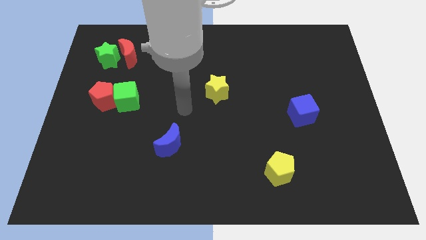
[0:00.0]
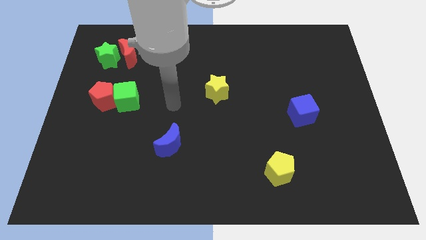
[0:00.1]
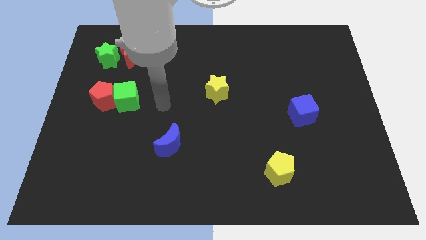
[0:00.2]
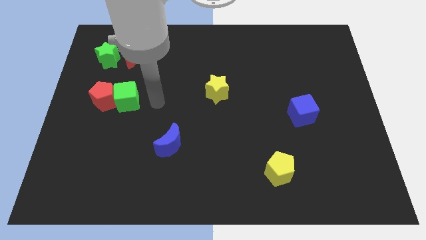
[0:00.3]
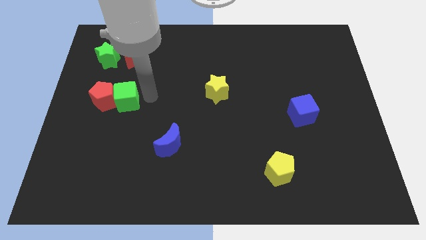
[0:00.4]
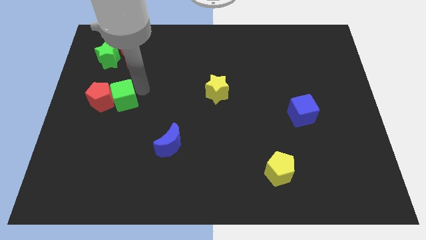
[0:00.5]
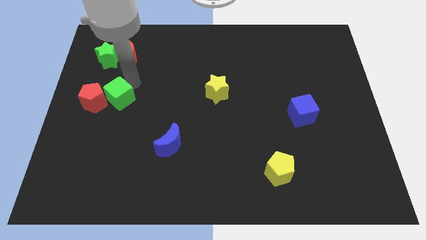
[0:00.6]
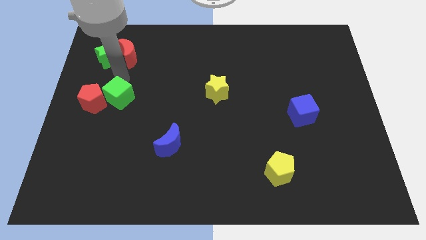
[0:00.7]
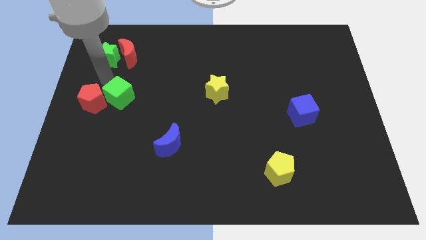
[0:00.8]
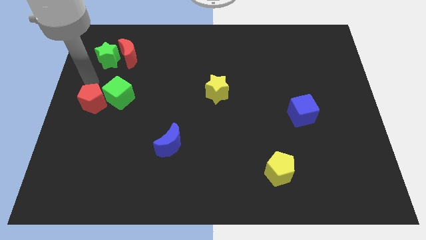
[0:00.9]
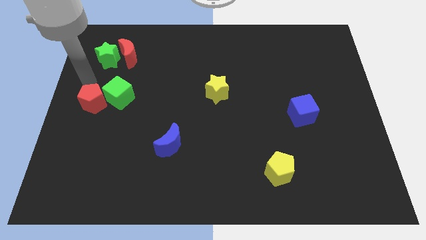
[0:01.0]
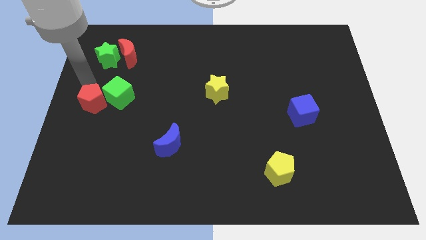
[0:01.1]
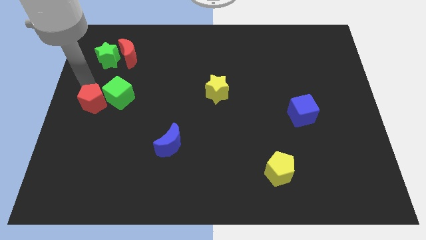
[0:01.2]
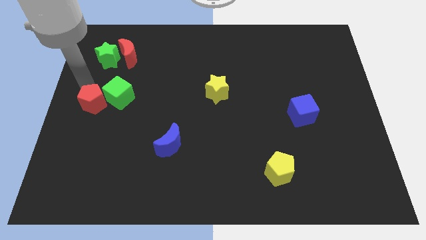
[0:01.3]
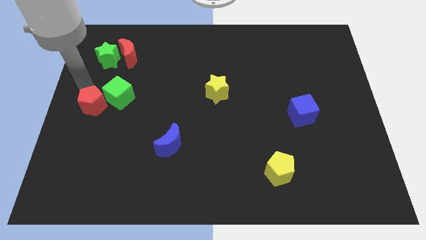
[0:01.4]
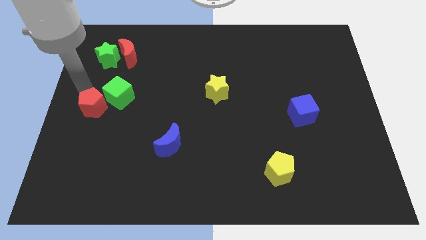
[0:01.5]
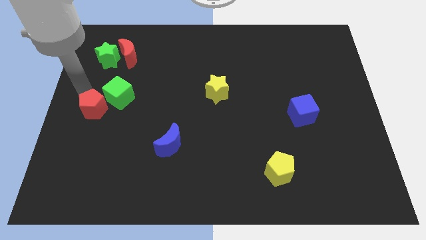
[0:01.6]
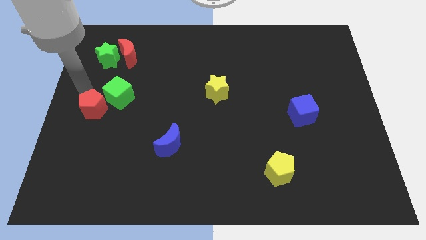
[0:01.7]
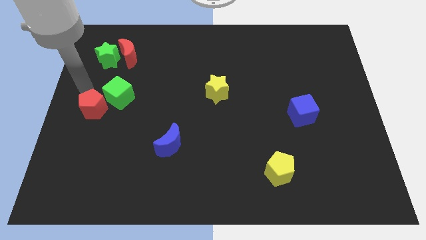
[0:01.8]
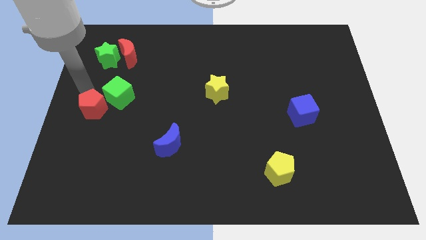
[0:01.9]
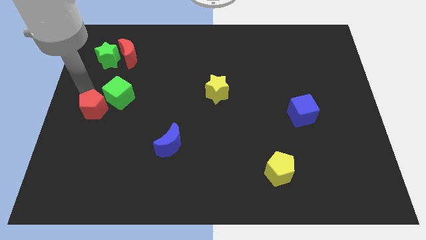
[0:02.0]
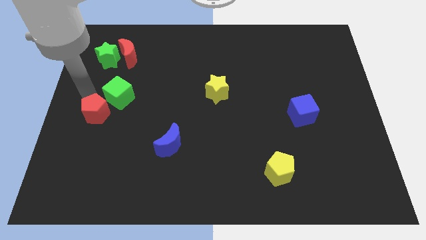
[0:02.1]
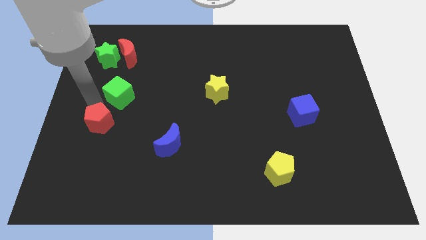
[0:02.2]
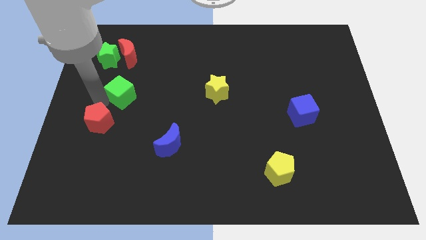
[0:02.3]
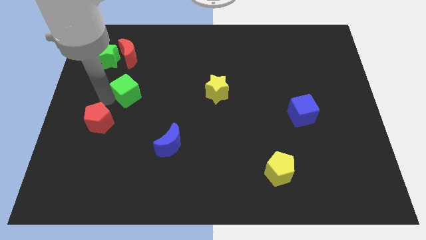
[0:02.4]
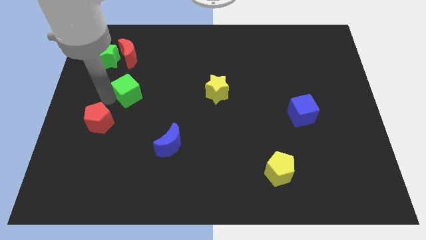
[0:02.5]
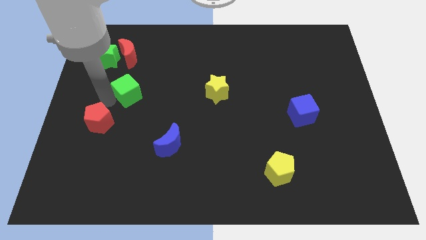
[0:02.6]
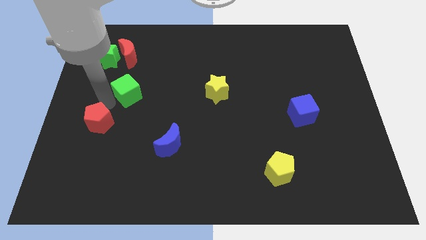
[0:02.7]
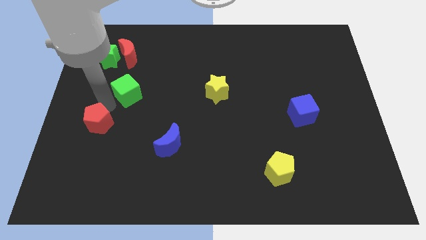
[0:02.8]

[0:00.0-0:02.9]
move the red pentagon a bit downwards

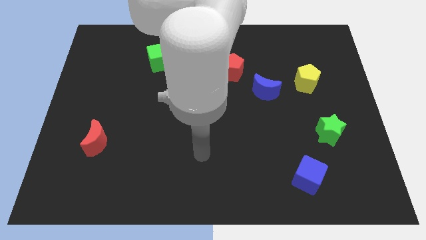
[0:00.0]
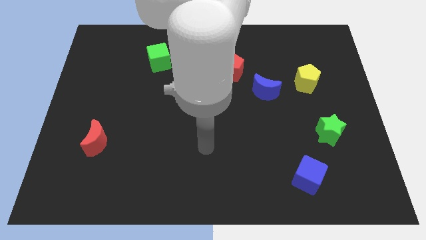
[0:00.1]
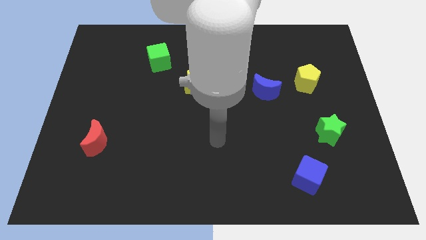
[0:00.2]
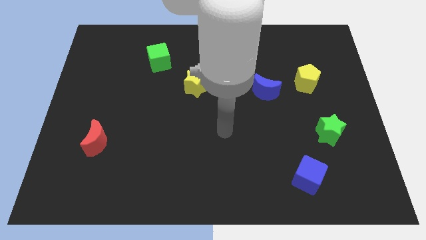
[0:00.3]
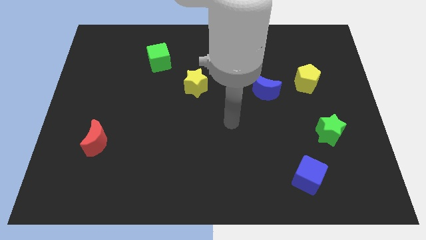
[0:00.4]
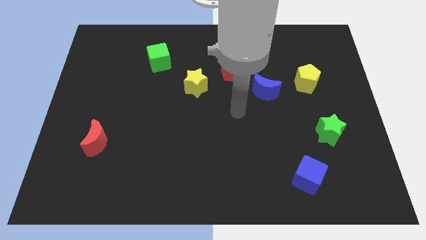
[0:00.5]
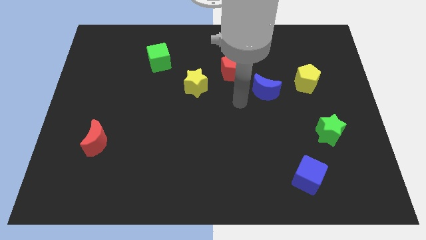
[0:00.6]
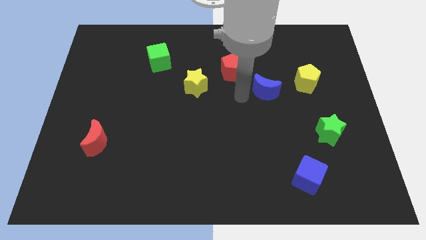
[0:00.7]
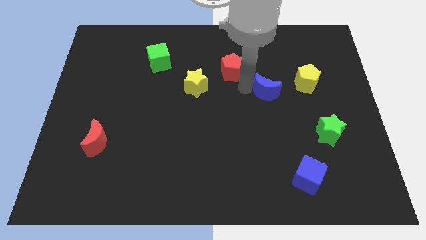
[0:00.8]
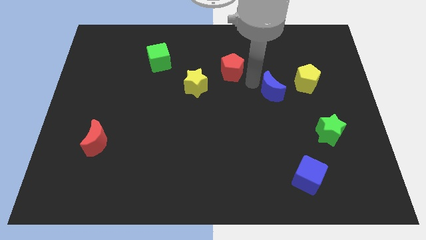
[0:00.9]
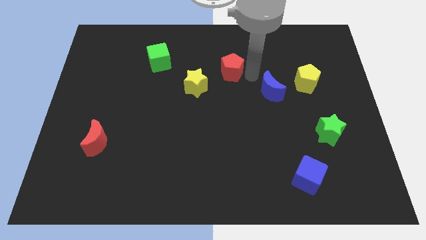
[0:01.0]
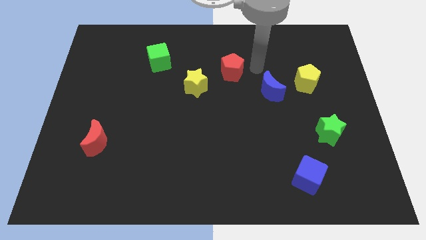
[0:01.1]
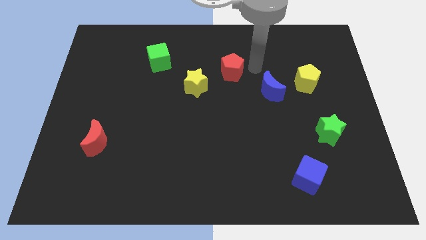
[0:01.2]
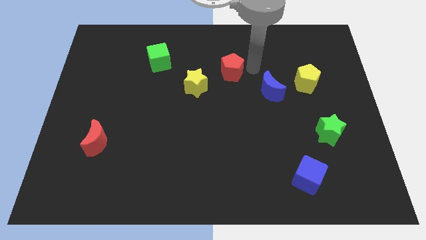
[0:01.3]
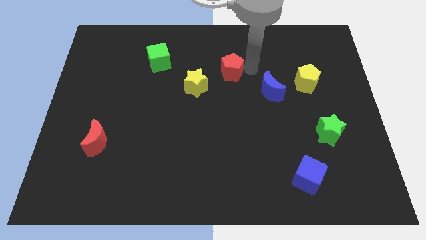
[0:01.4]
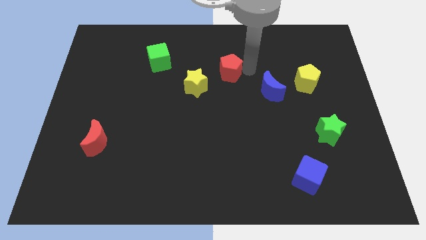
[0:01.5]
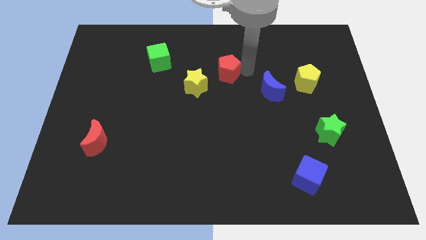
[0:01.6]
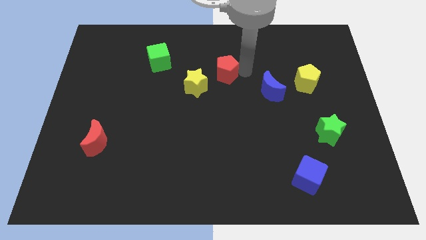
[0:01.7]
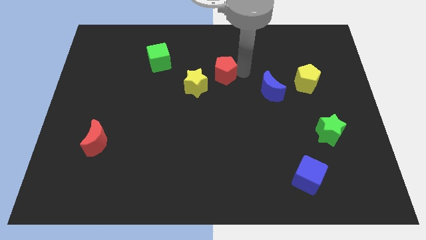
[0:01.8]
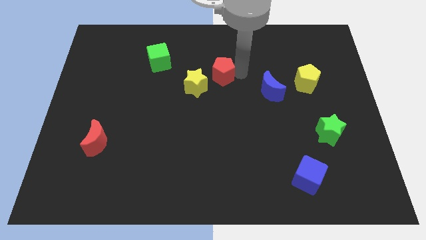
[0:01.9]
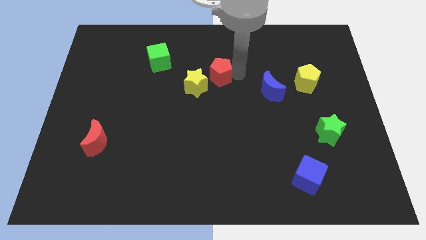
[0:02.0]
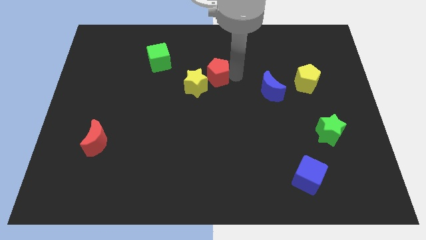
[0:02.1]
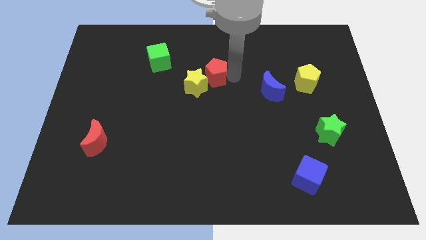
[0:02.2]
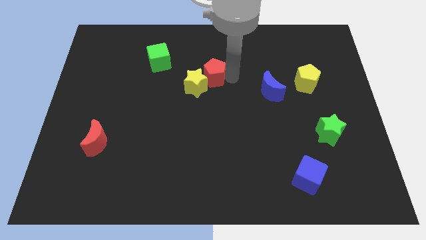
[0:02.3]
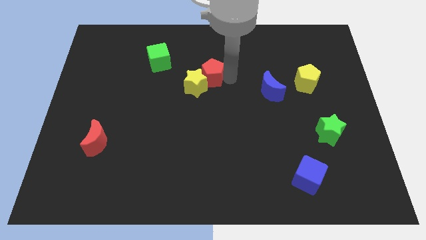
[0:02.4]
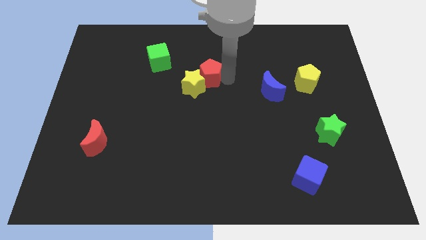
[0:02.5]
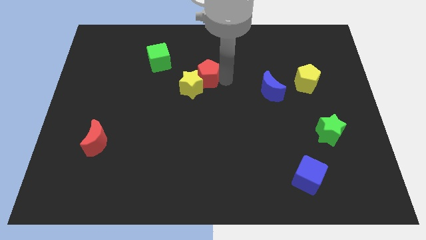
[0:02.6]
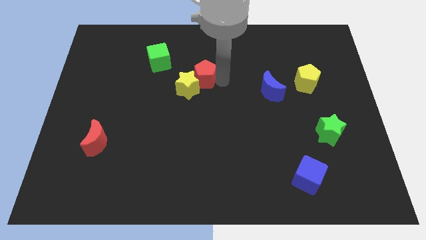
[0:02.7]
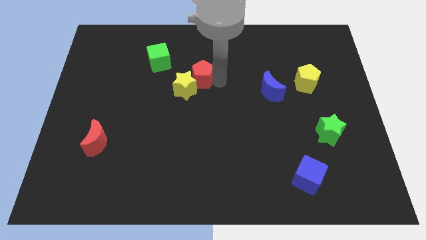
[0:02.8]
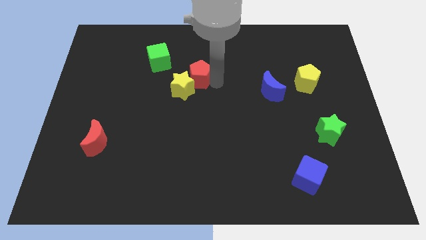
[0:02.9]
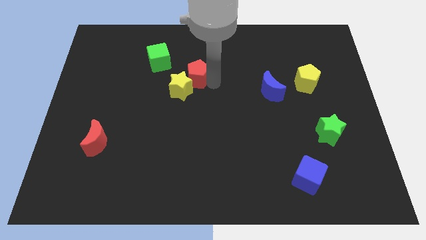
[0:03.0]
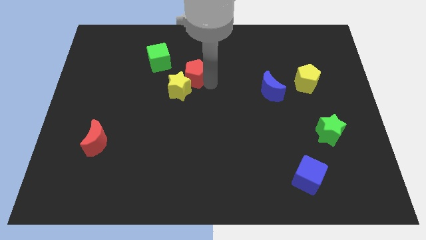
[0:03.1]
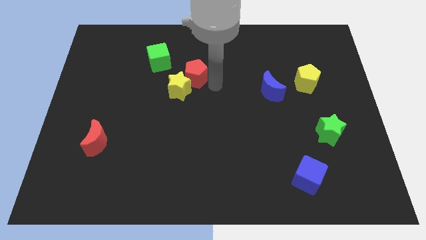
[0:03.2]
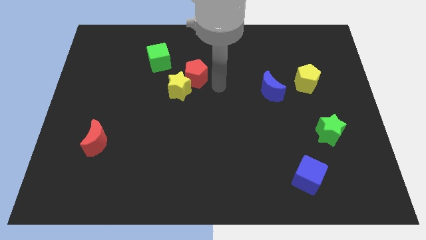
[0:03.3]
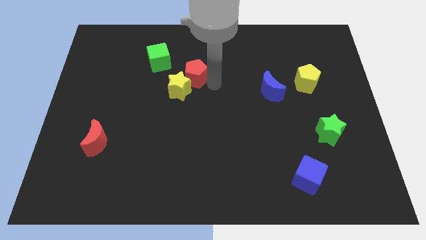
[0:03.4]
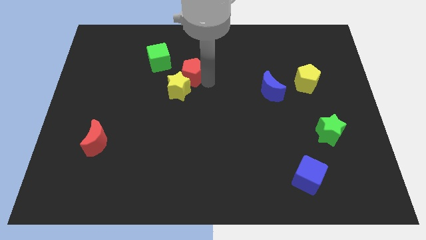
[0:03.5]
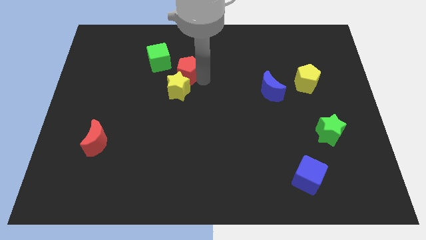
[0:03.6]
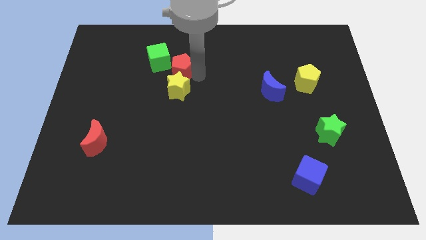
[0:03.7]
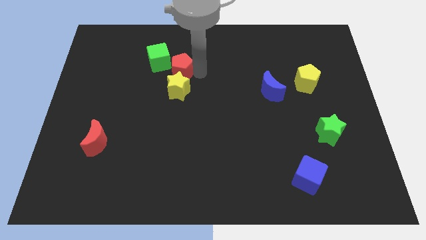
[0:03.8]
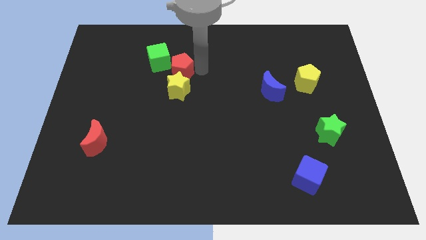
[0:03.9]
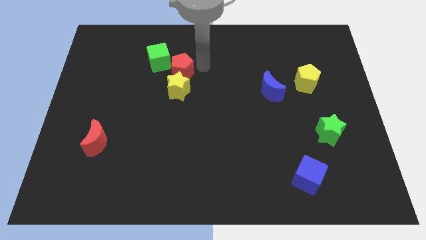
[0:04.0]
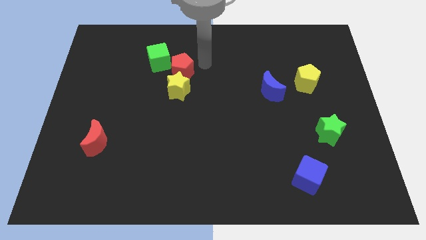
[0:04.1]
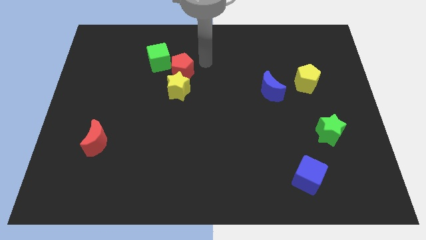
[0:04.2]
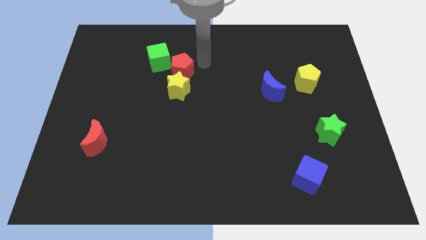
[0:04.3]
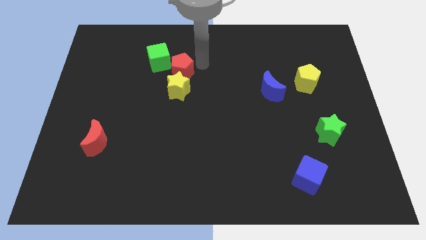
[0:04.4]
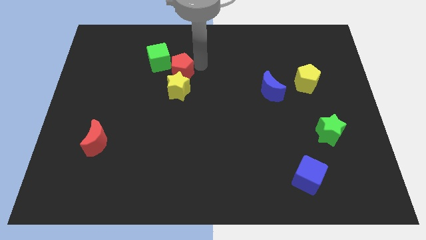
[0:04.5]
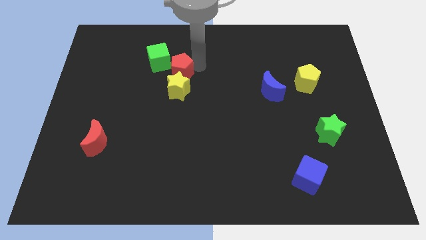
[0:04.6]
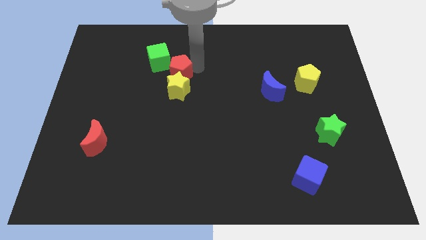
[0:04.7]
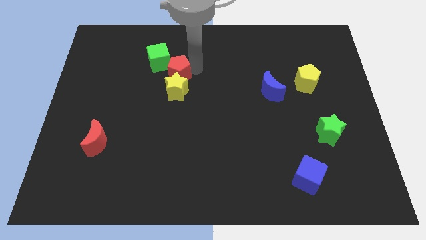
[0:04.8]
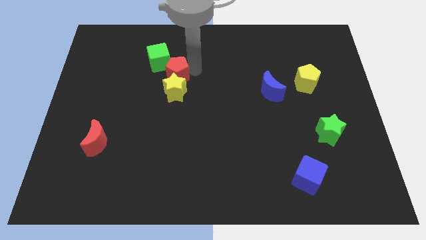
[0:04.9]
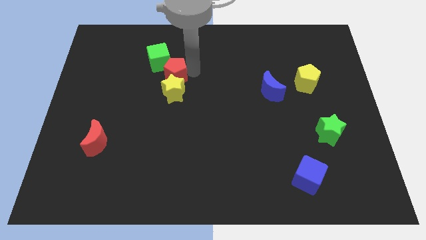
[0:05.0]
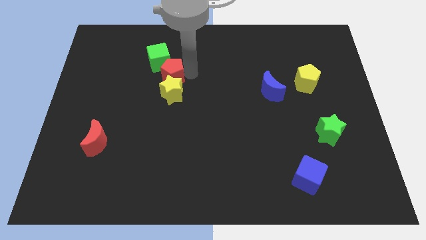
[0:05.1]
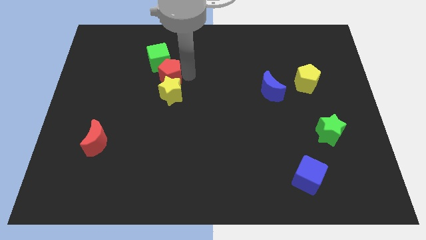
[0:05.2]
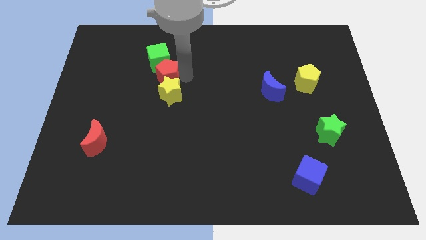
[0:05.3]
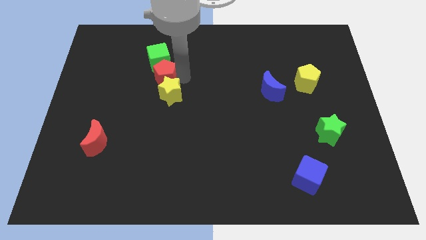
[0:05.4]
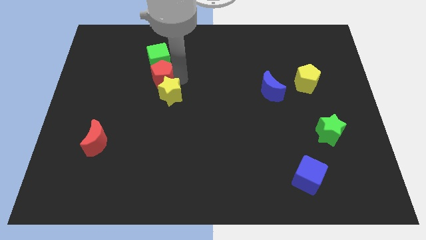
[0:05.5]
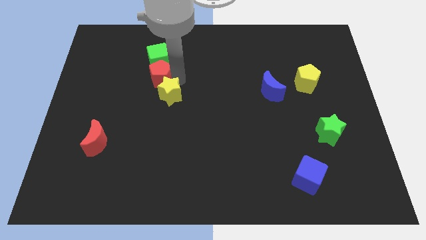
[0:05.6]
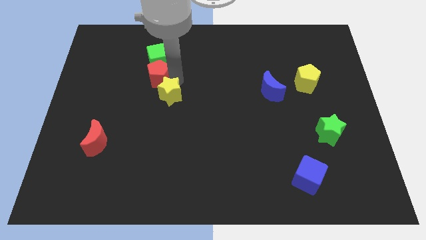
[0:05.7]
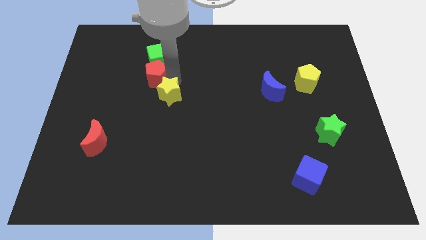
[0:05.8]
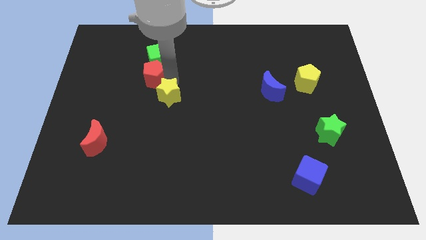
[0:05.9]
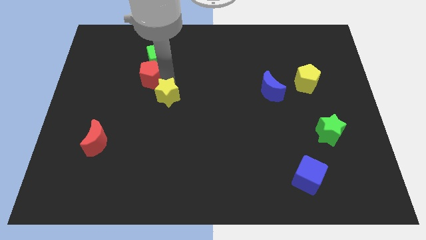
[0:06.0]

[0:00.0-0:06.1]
push the red pentagon to the left
